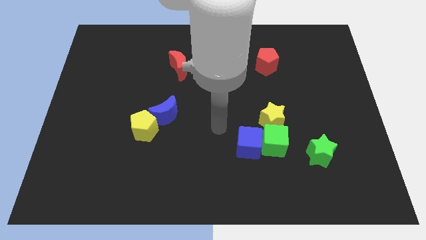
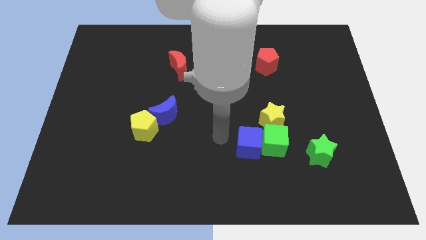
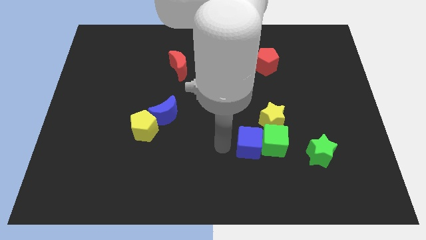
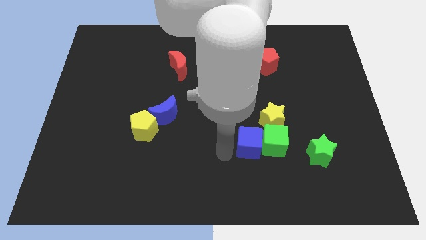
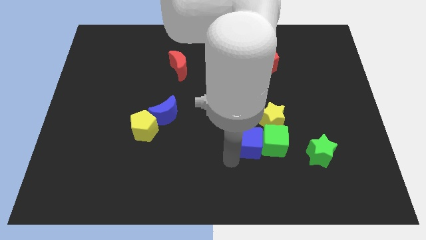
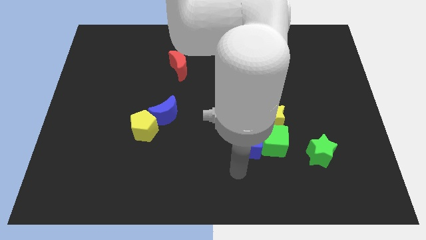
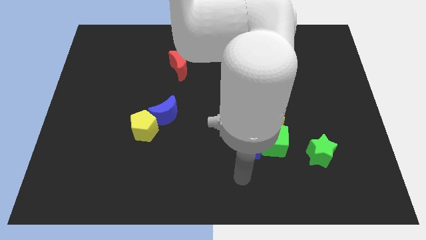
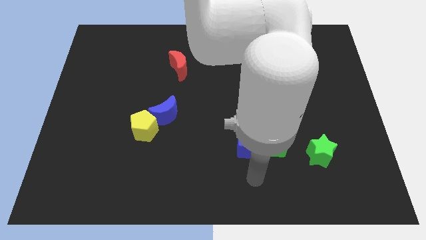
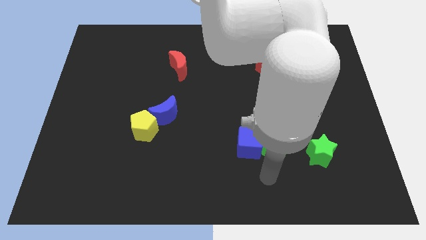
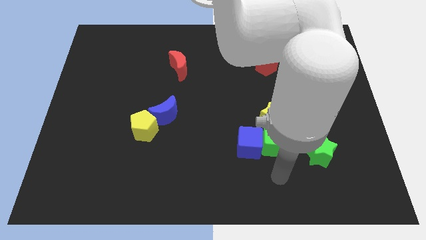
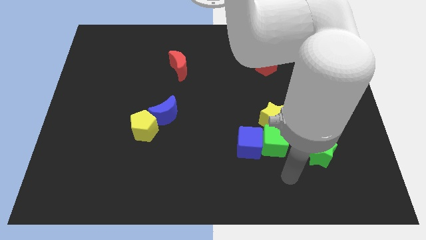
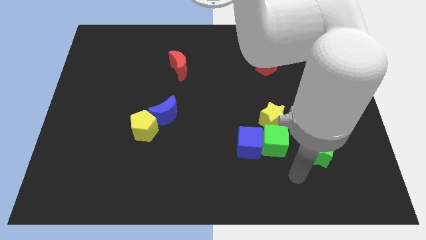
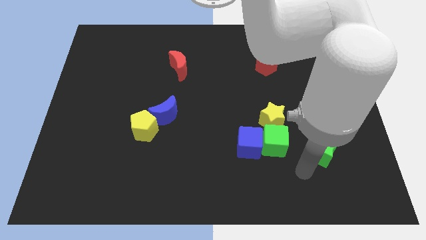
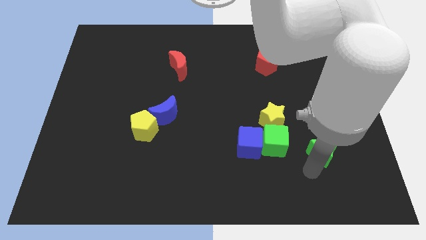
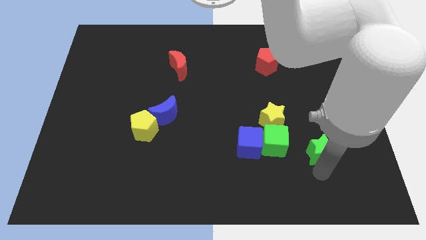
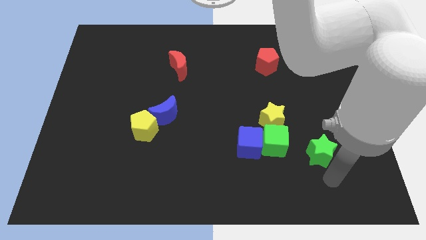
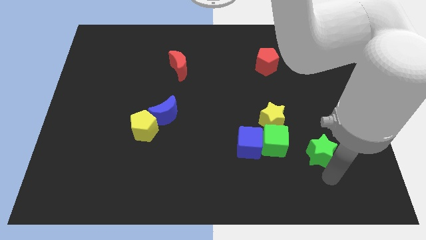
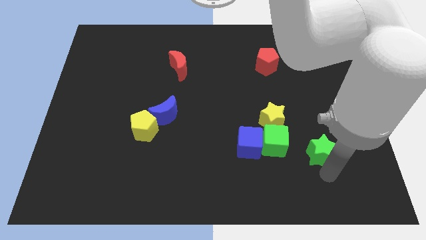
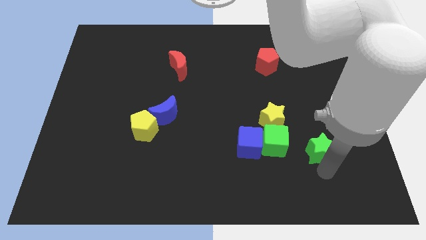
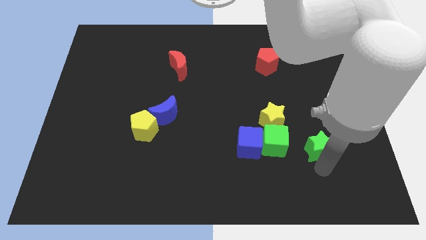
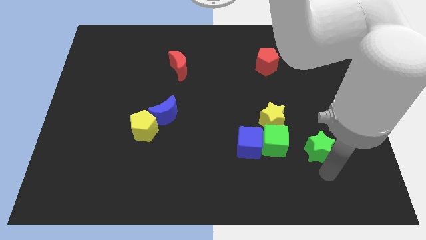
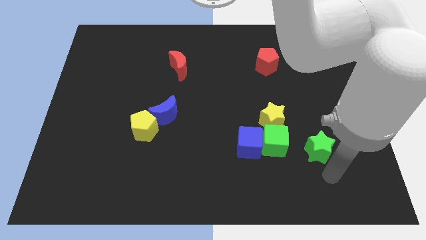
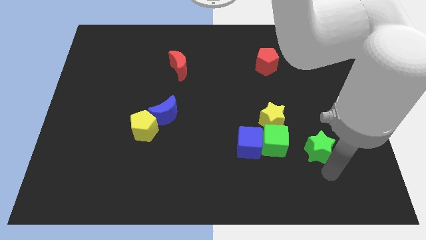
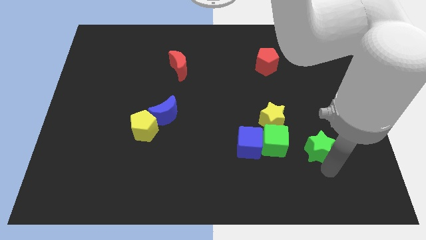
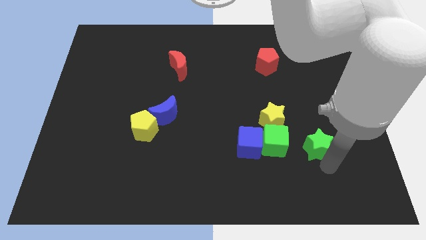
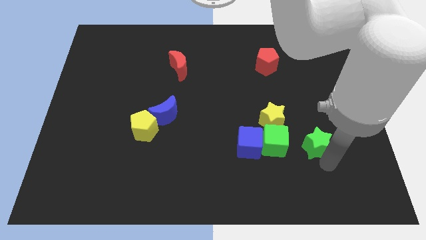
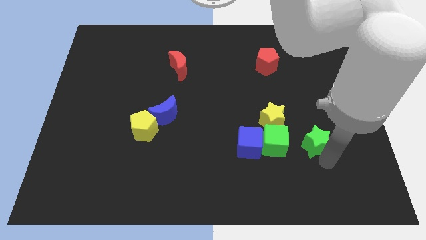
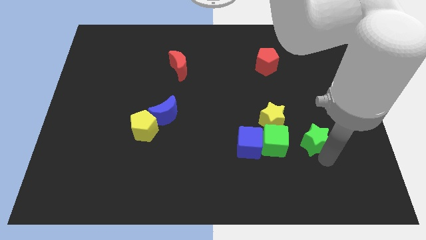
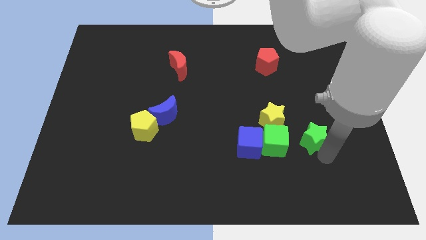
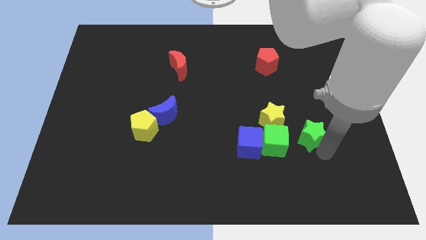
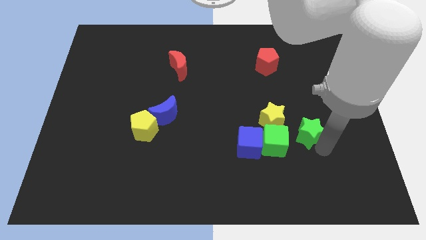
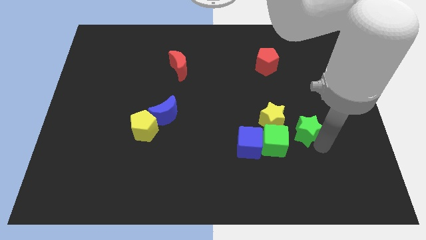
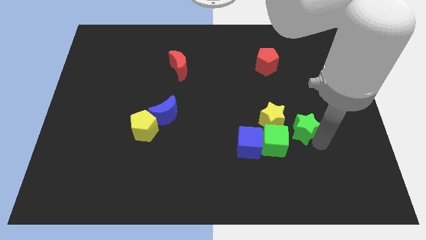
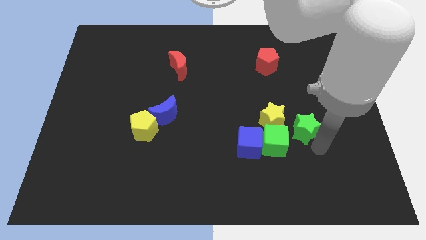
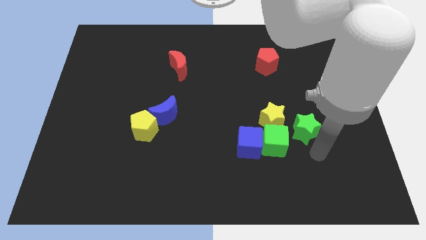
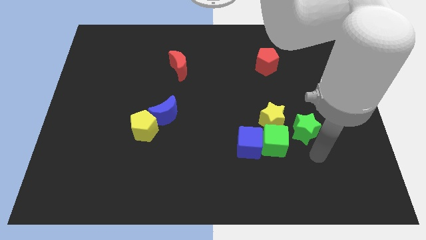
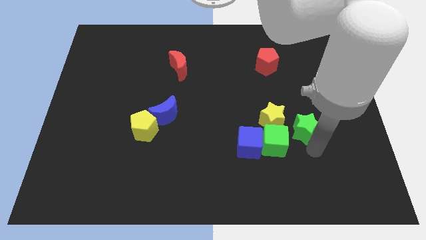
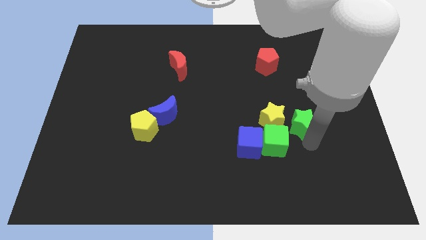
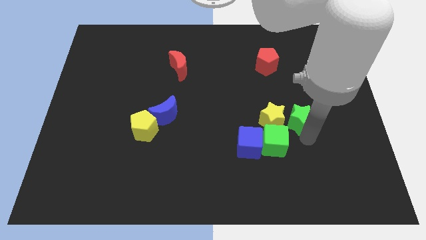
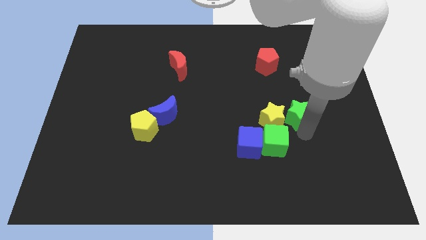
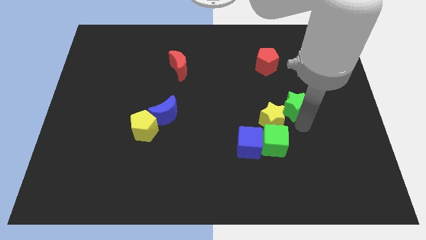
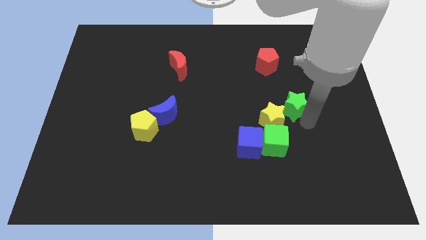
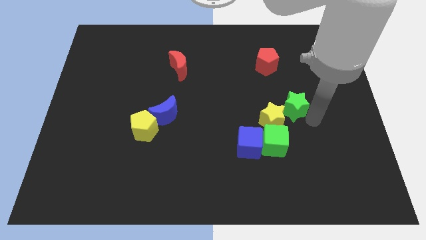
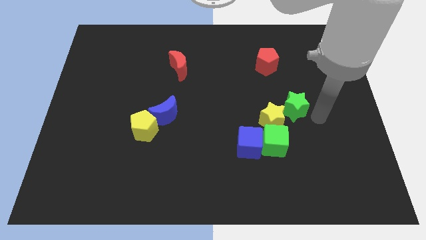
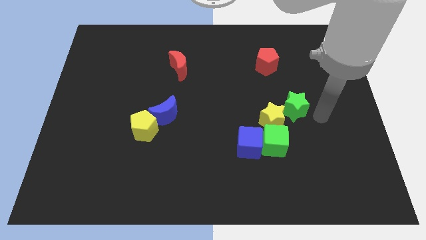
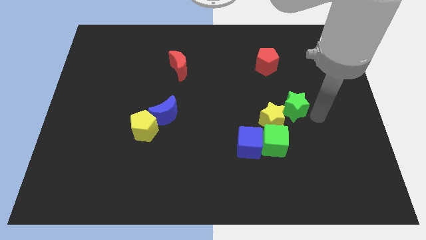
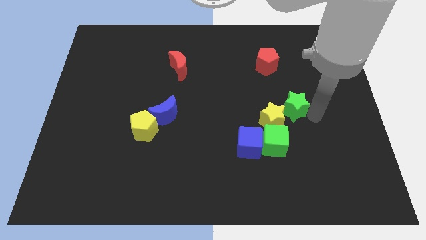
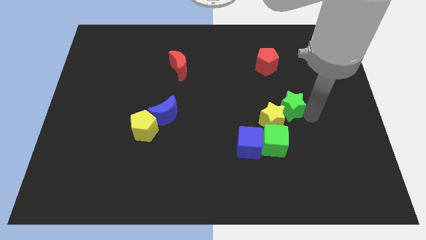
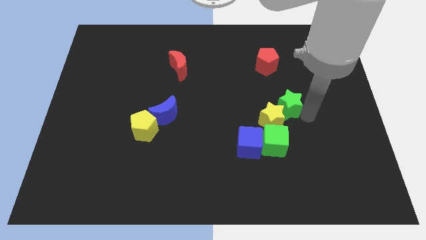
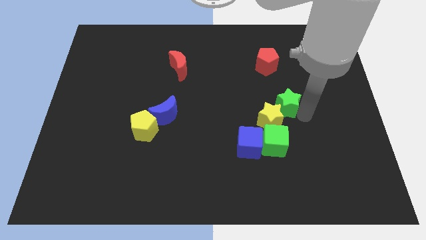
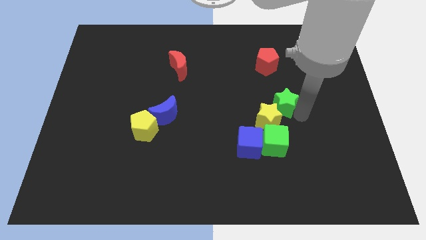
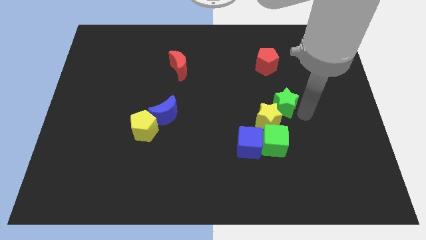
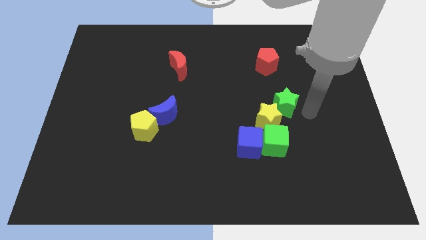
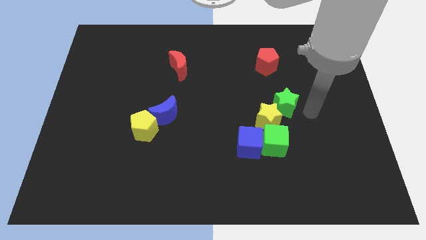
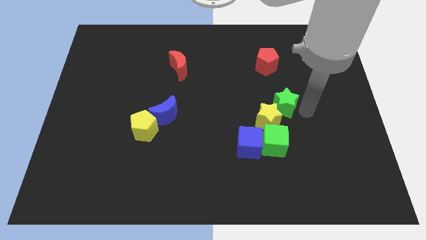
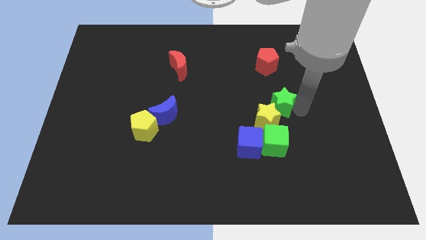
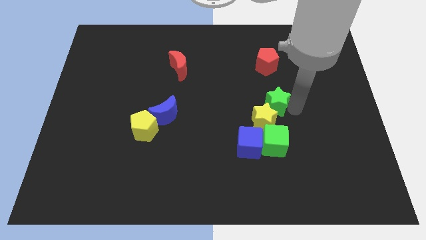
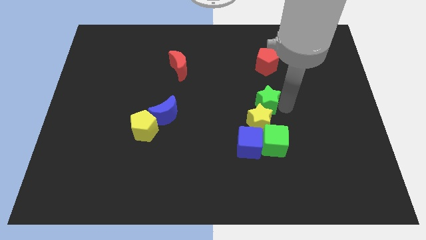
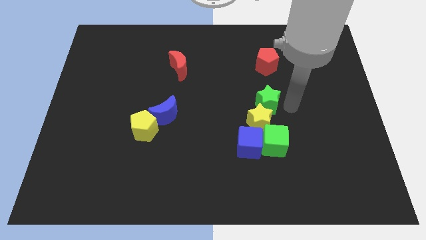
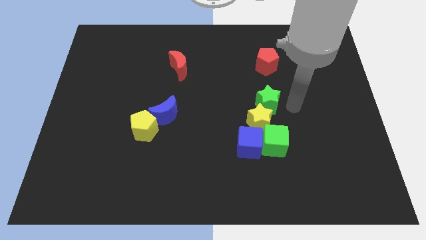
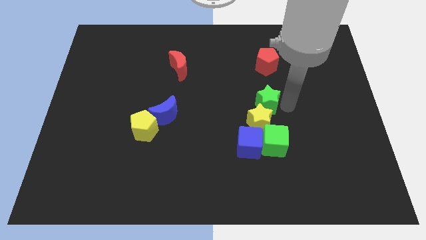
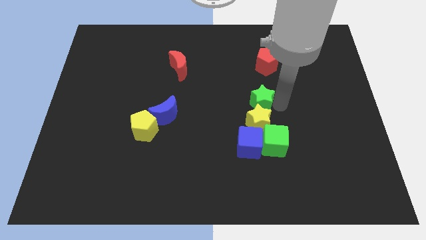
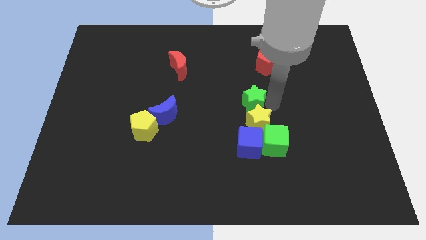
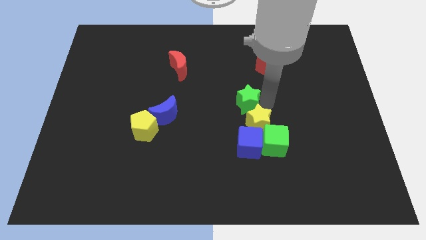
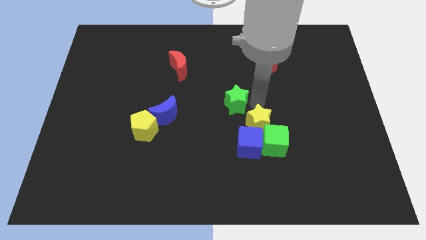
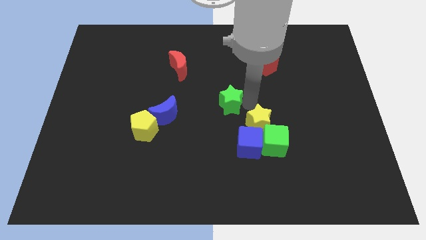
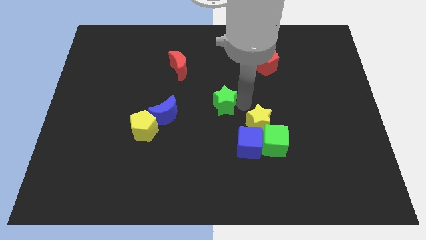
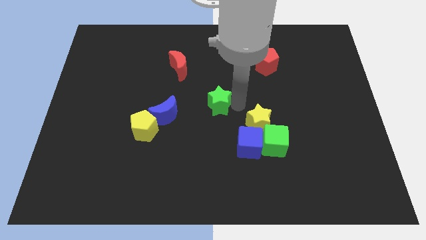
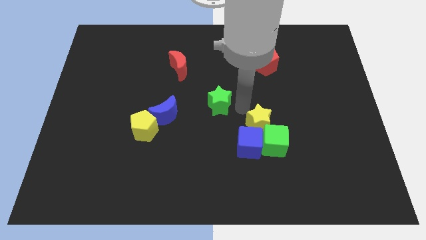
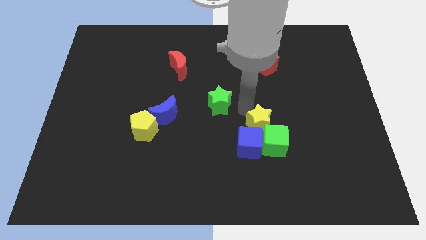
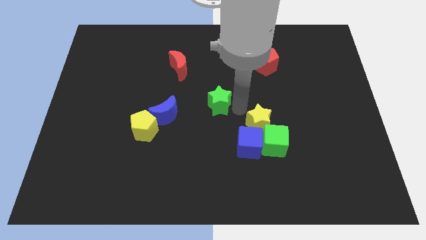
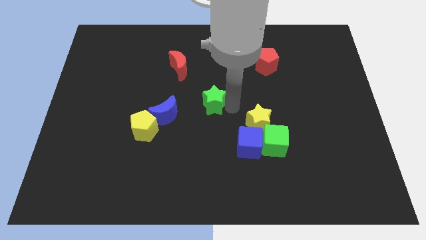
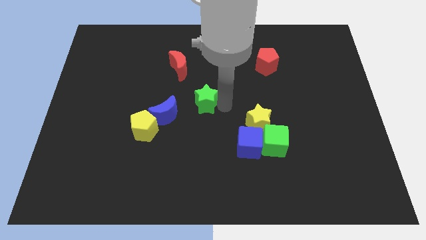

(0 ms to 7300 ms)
move the green star diagonally up and to the right of the blue moon
